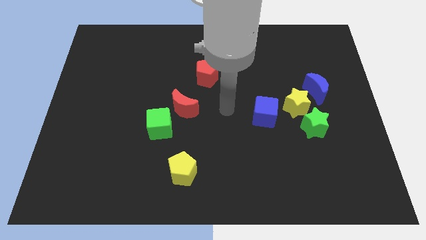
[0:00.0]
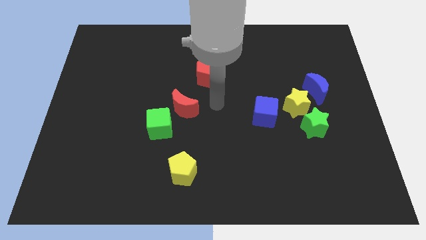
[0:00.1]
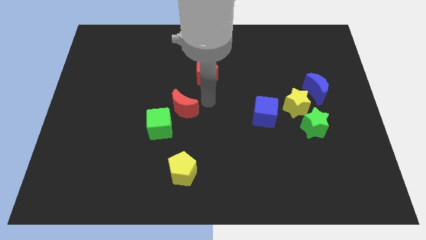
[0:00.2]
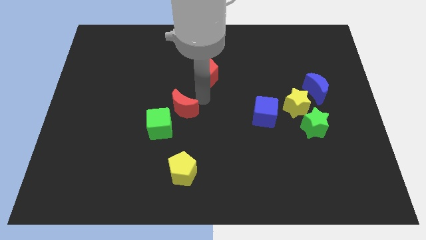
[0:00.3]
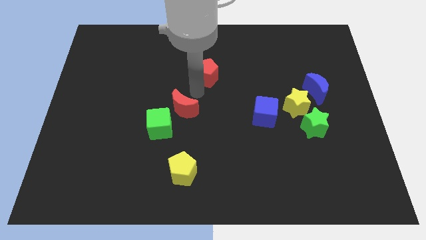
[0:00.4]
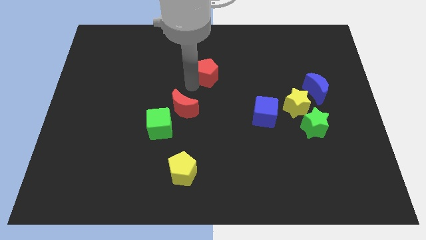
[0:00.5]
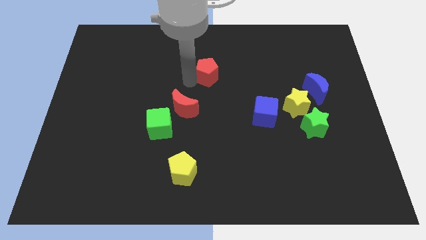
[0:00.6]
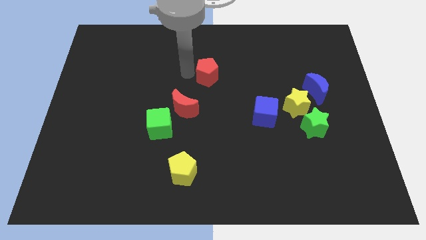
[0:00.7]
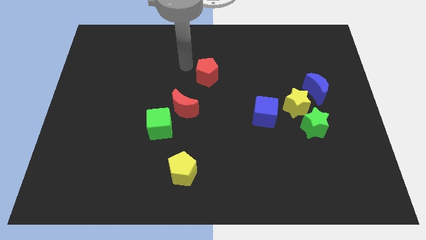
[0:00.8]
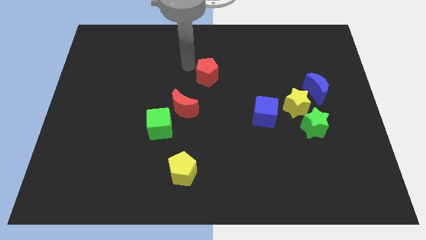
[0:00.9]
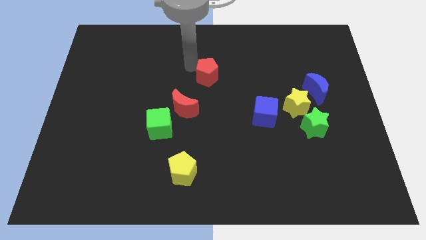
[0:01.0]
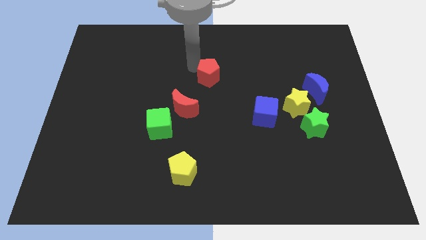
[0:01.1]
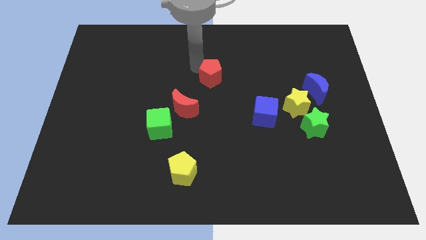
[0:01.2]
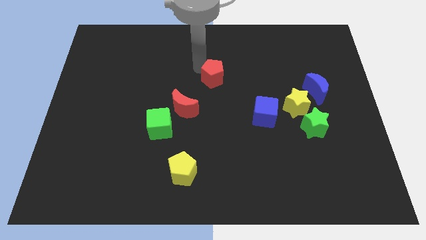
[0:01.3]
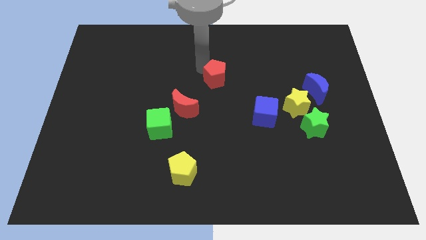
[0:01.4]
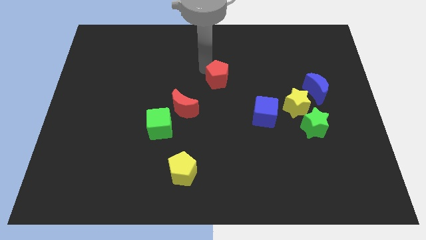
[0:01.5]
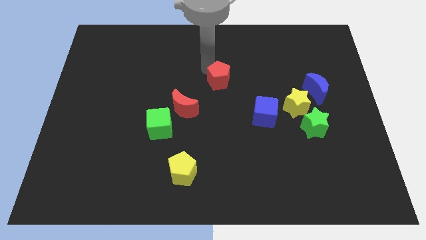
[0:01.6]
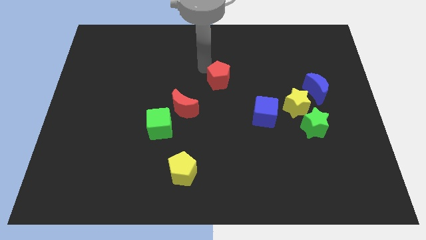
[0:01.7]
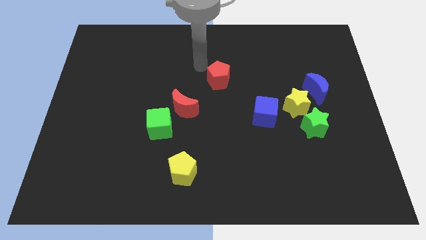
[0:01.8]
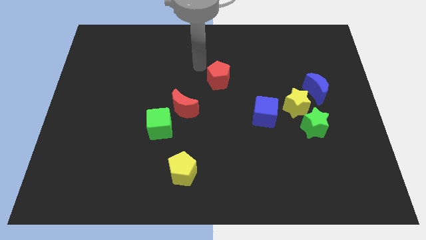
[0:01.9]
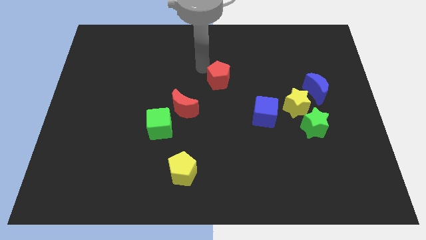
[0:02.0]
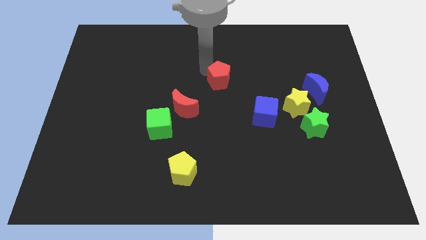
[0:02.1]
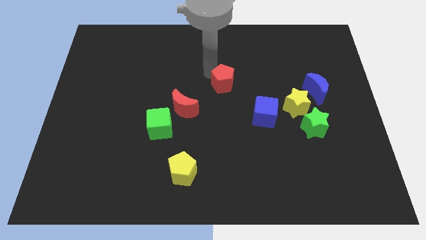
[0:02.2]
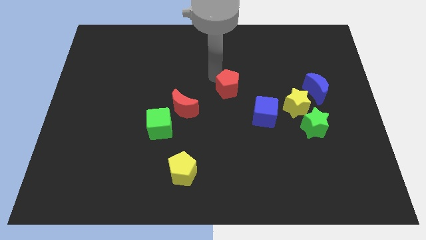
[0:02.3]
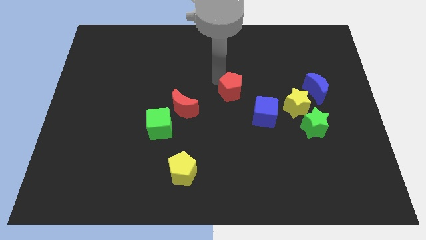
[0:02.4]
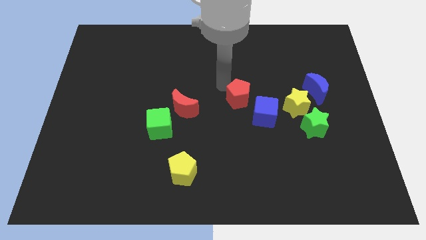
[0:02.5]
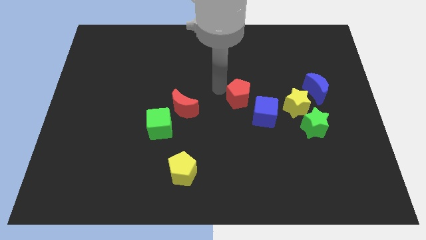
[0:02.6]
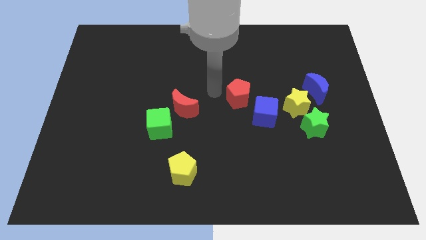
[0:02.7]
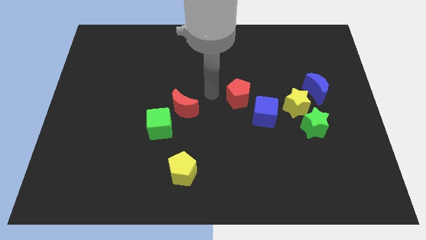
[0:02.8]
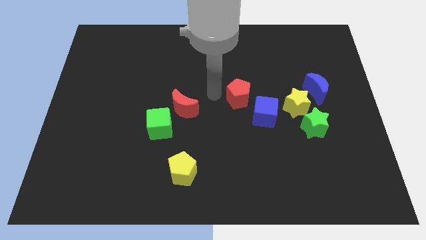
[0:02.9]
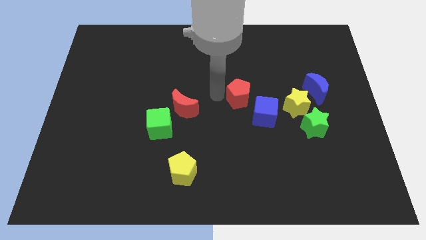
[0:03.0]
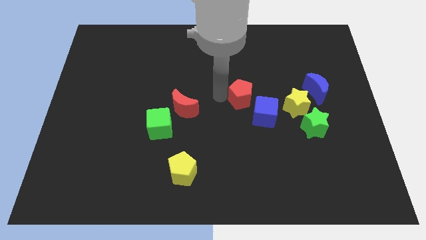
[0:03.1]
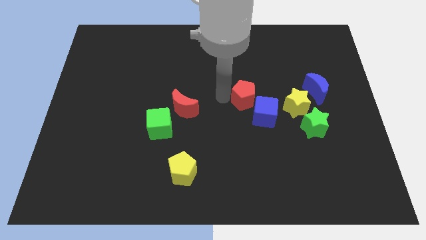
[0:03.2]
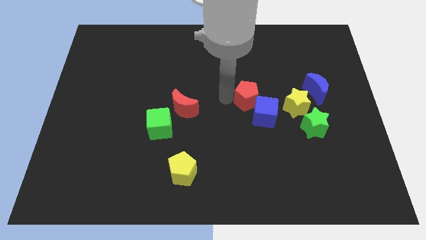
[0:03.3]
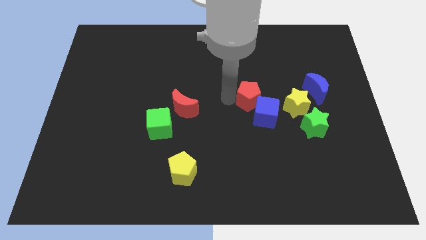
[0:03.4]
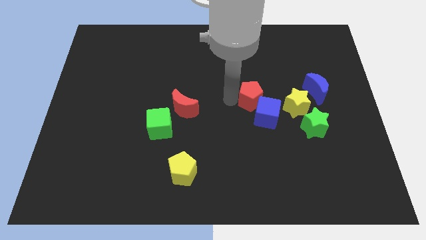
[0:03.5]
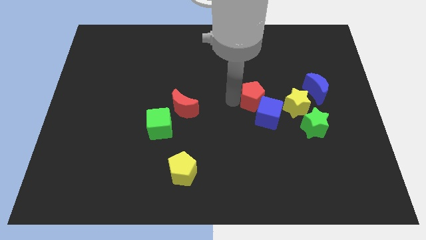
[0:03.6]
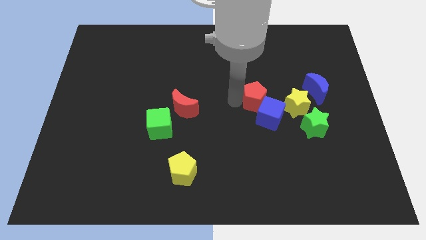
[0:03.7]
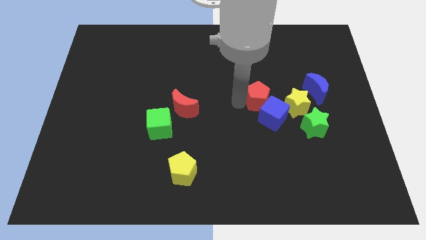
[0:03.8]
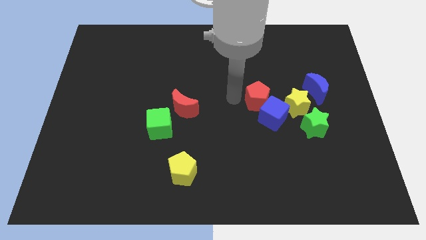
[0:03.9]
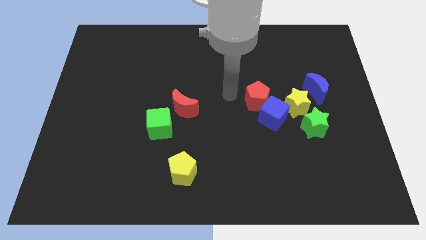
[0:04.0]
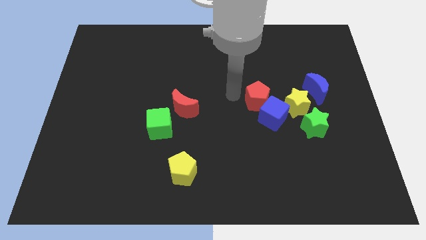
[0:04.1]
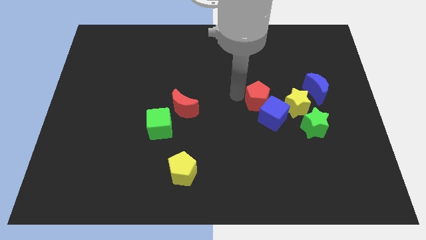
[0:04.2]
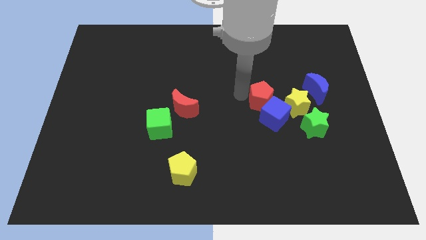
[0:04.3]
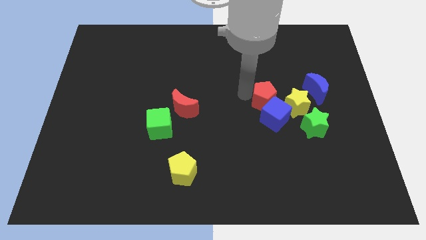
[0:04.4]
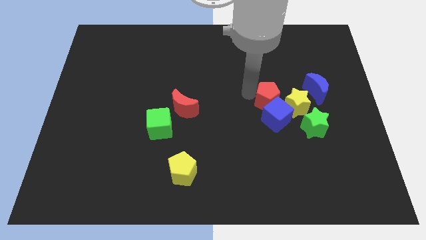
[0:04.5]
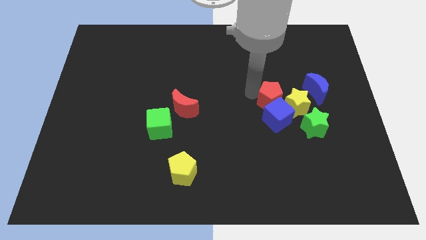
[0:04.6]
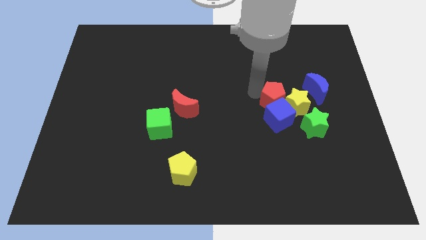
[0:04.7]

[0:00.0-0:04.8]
slide the red pentagon close to the yellow star

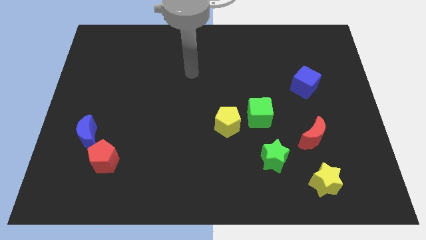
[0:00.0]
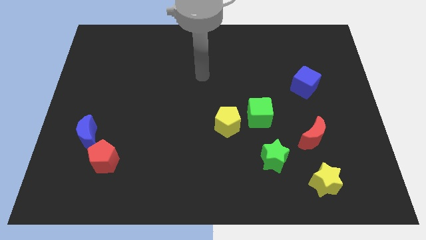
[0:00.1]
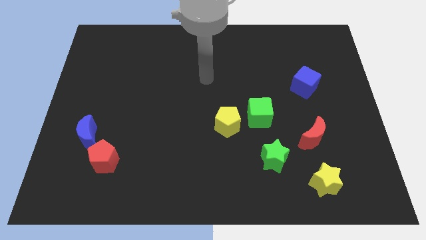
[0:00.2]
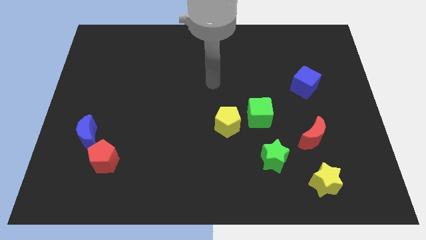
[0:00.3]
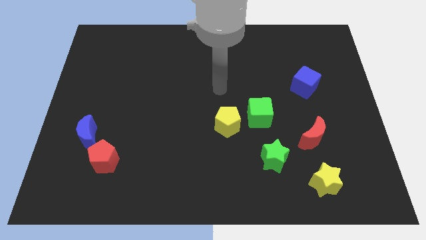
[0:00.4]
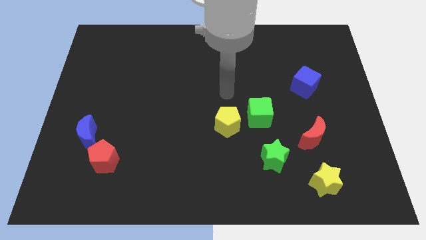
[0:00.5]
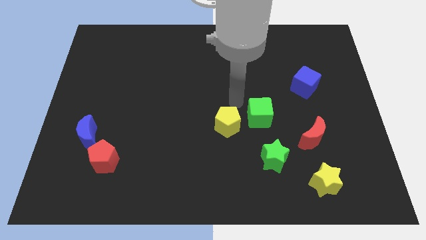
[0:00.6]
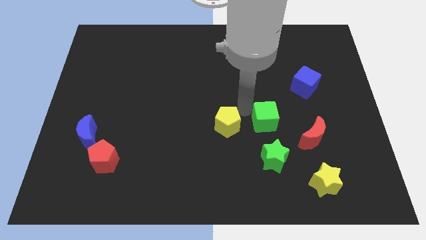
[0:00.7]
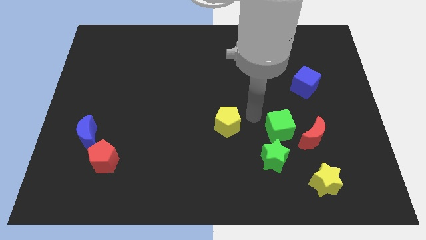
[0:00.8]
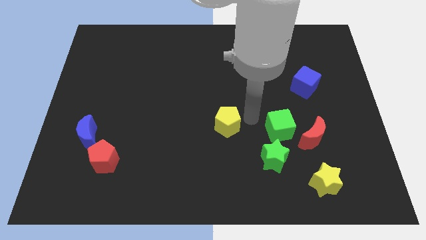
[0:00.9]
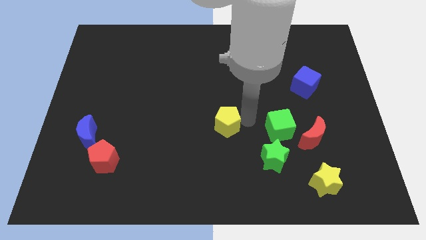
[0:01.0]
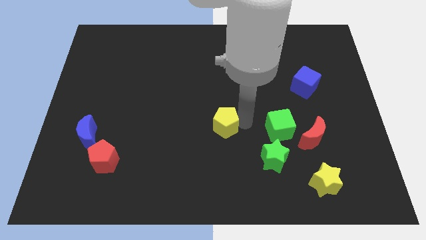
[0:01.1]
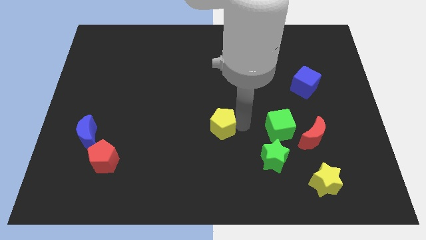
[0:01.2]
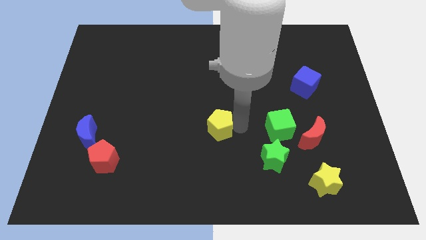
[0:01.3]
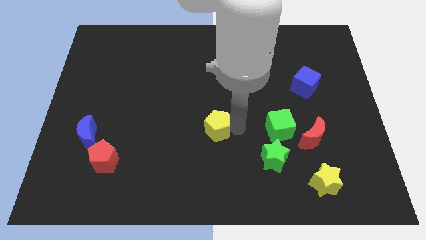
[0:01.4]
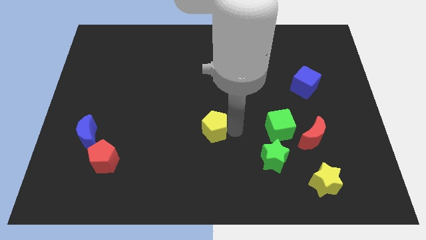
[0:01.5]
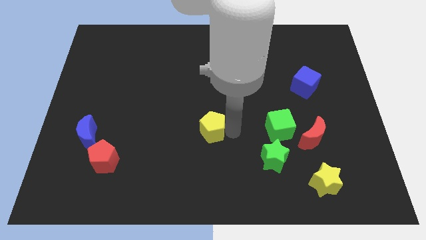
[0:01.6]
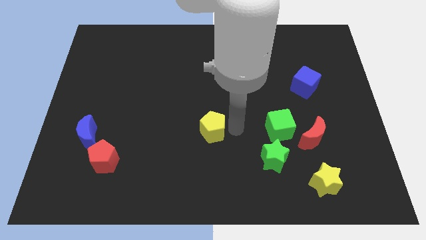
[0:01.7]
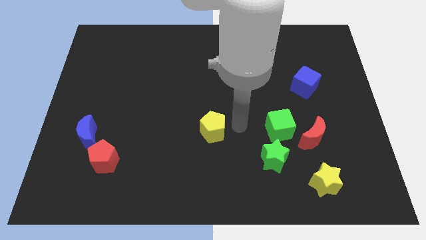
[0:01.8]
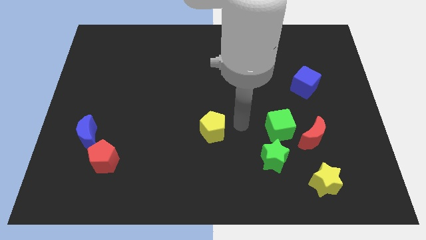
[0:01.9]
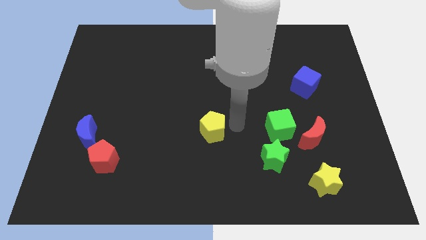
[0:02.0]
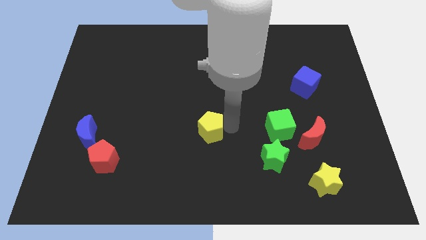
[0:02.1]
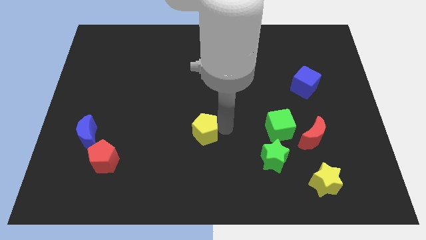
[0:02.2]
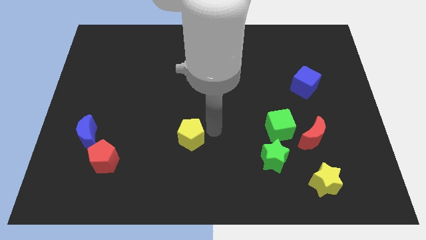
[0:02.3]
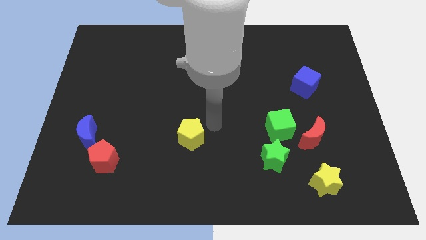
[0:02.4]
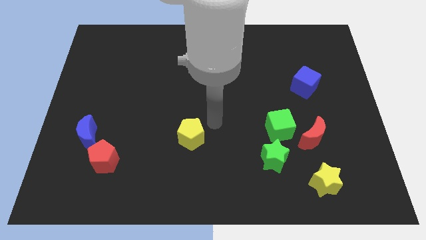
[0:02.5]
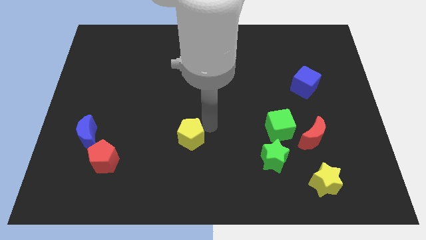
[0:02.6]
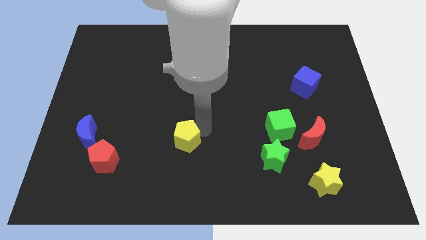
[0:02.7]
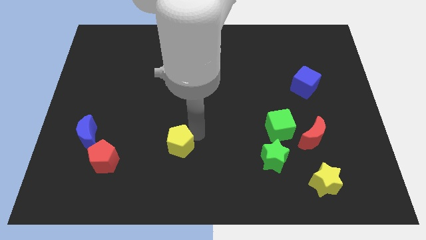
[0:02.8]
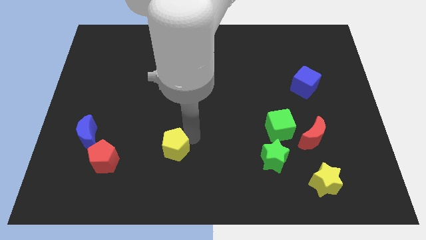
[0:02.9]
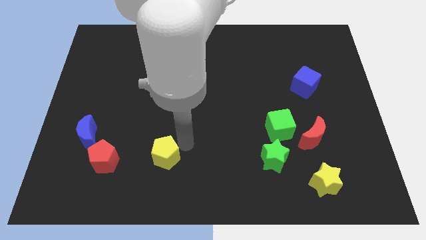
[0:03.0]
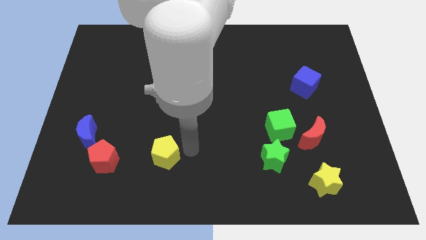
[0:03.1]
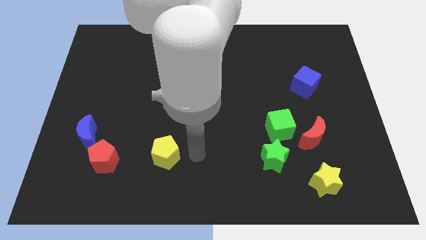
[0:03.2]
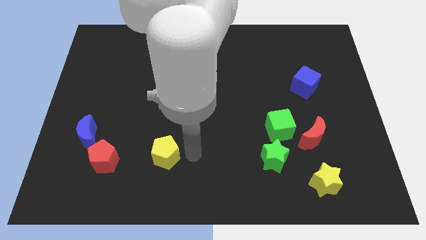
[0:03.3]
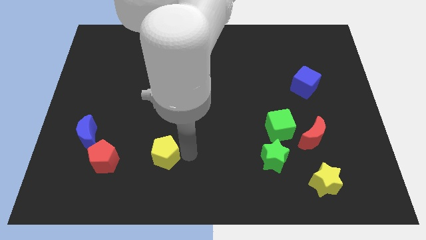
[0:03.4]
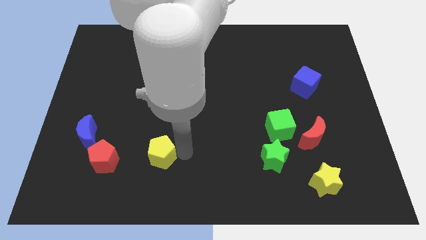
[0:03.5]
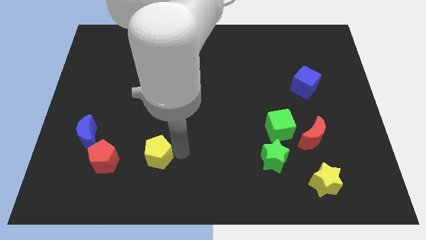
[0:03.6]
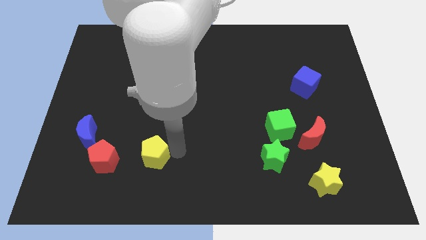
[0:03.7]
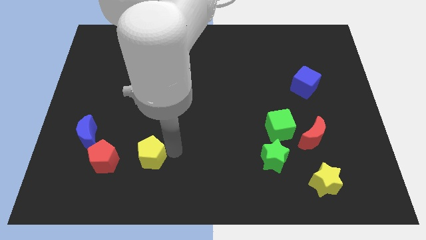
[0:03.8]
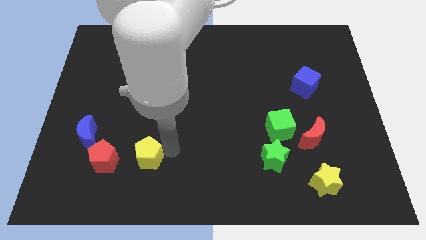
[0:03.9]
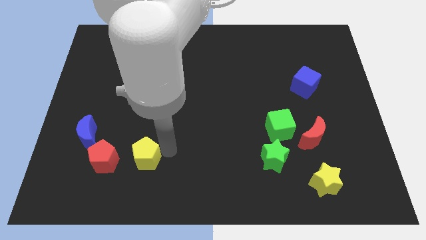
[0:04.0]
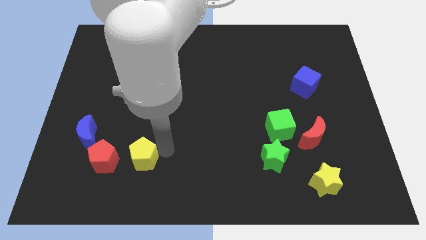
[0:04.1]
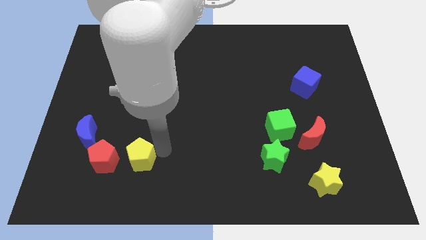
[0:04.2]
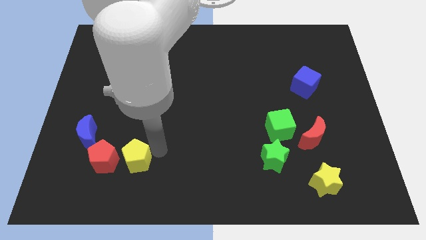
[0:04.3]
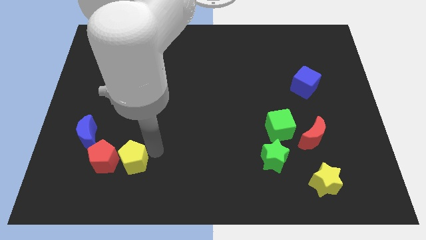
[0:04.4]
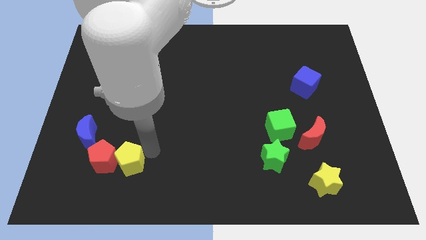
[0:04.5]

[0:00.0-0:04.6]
put the yellow pentagon to the red pentagon
